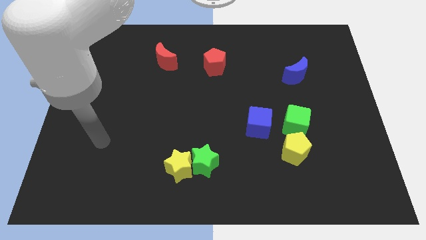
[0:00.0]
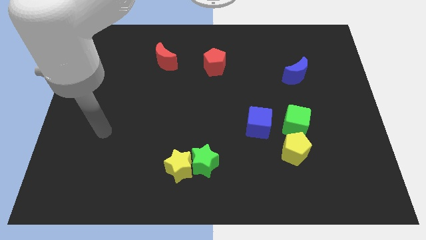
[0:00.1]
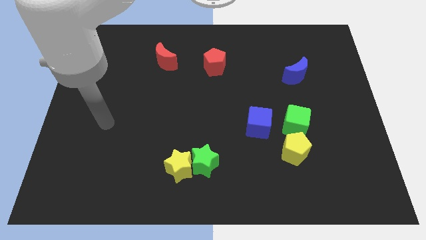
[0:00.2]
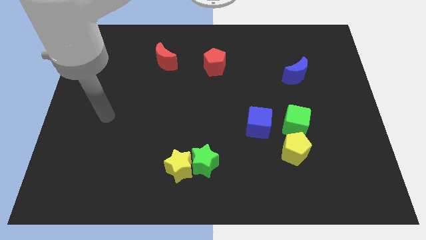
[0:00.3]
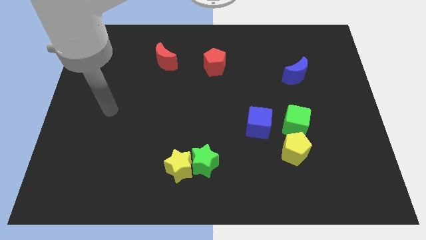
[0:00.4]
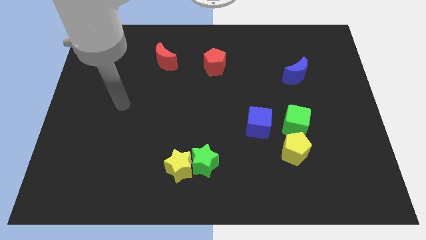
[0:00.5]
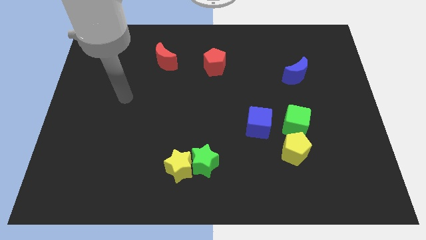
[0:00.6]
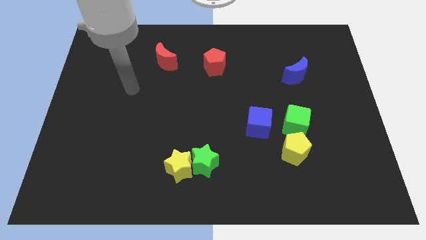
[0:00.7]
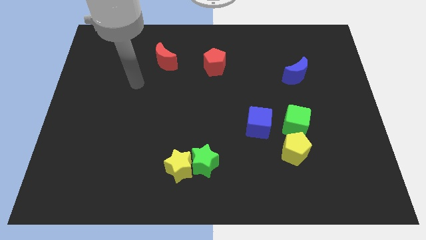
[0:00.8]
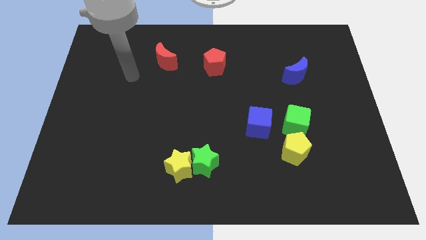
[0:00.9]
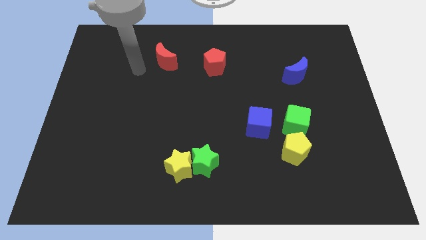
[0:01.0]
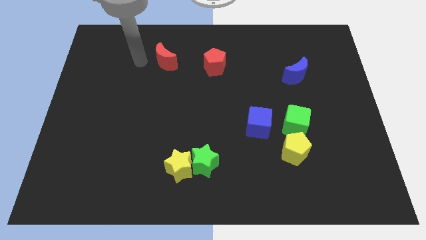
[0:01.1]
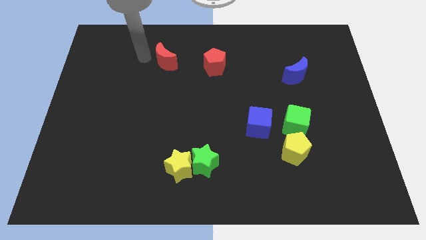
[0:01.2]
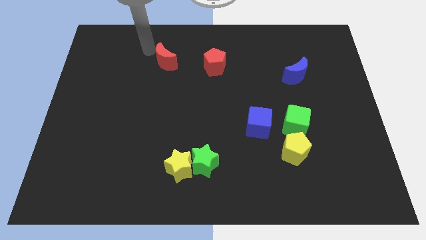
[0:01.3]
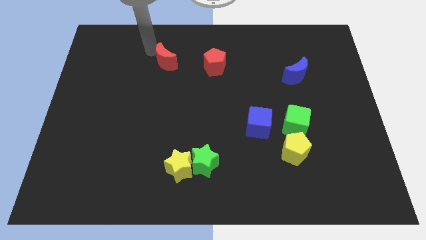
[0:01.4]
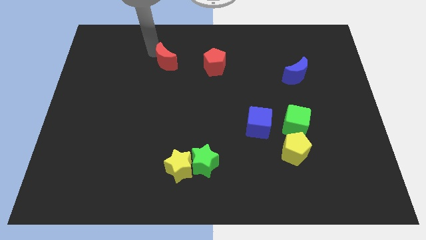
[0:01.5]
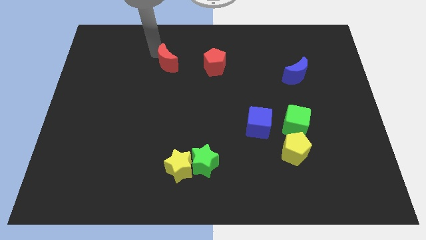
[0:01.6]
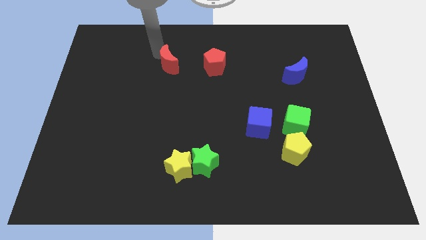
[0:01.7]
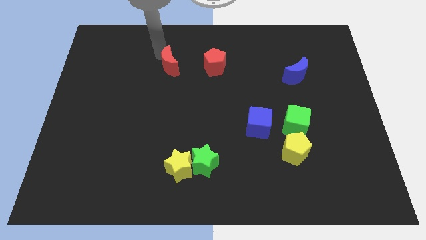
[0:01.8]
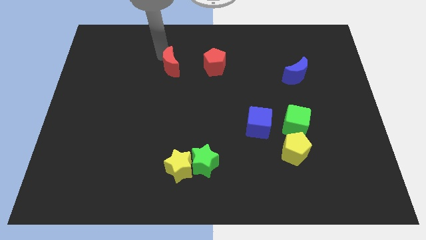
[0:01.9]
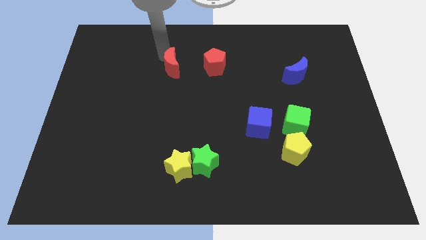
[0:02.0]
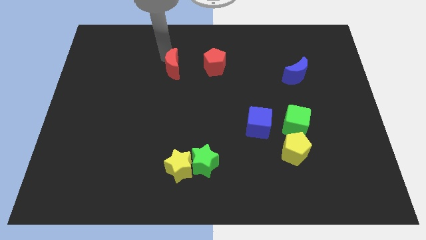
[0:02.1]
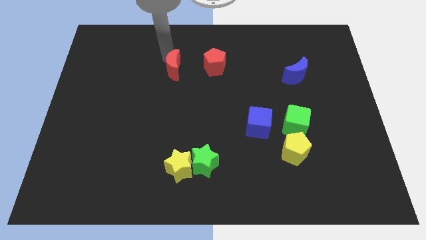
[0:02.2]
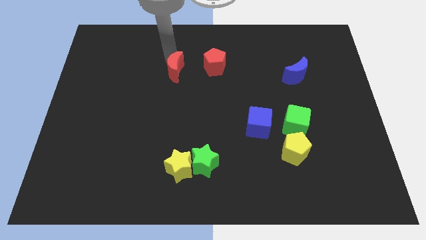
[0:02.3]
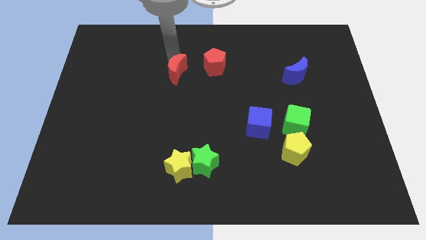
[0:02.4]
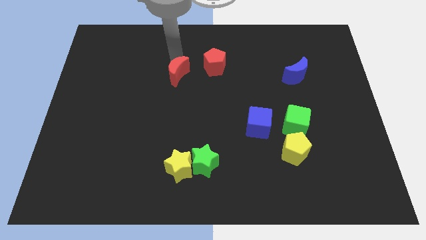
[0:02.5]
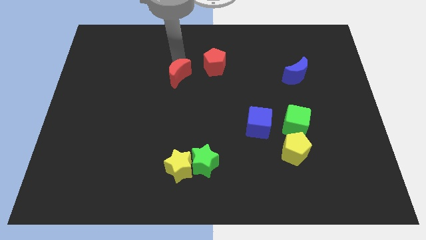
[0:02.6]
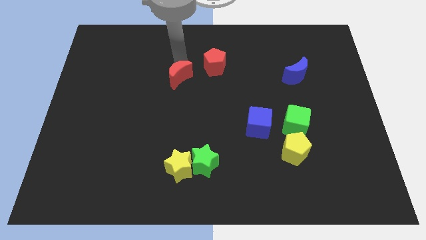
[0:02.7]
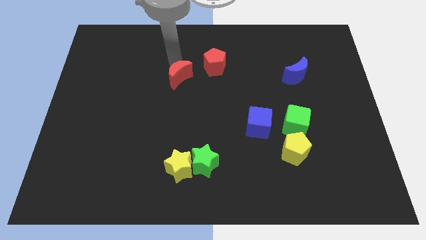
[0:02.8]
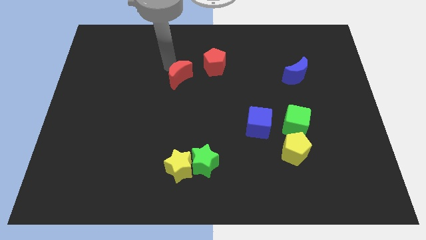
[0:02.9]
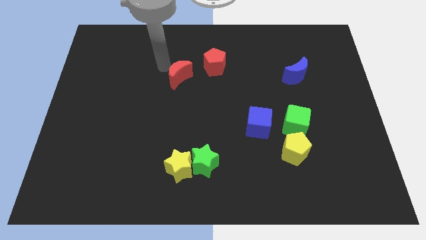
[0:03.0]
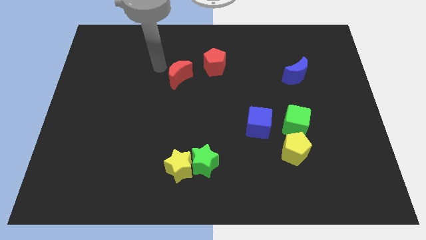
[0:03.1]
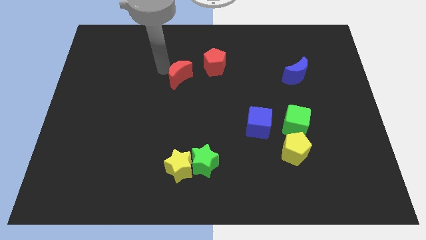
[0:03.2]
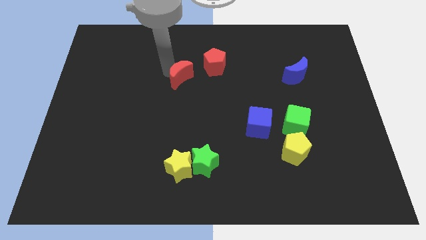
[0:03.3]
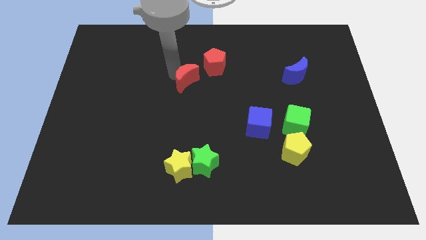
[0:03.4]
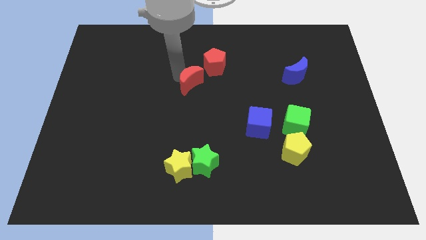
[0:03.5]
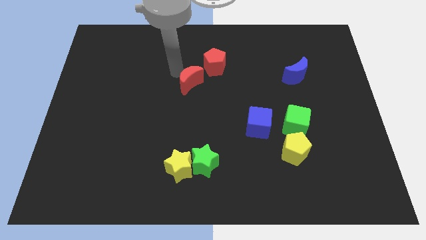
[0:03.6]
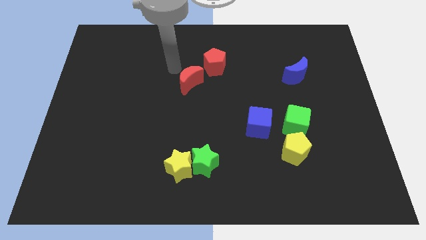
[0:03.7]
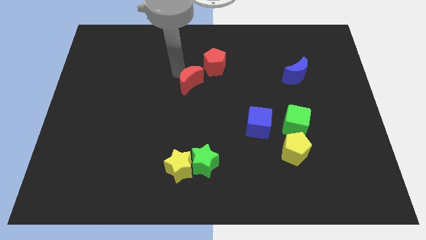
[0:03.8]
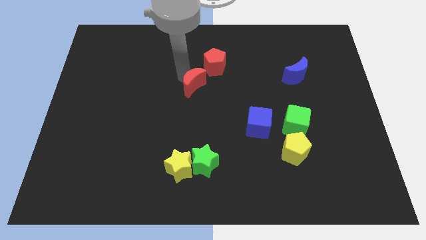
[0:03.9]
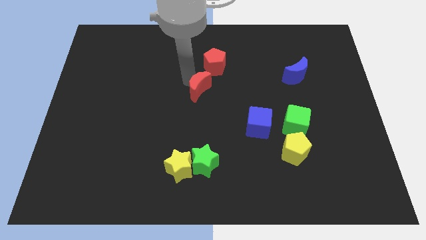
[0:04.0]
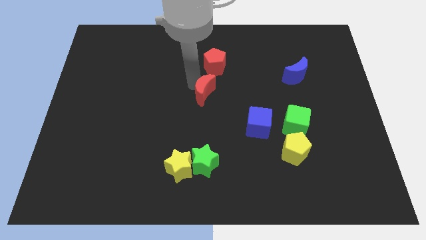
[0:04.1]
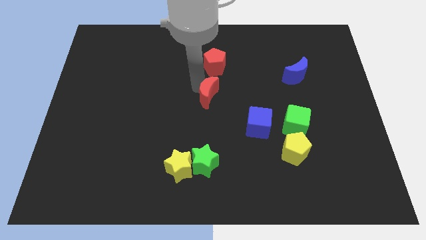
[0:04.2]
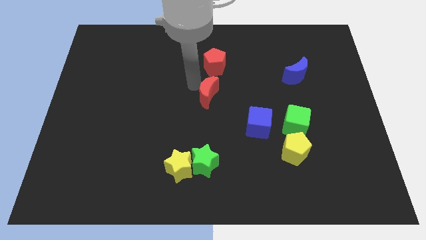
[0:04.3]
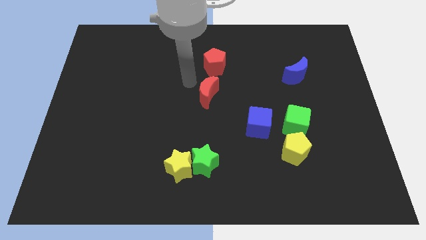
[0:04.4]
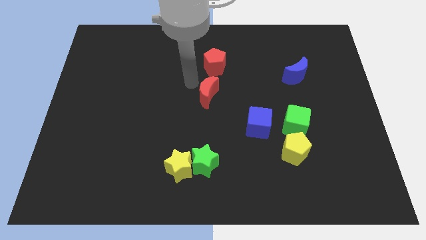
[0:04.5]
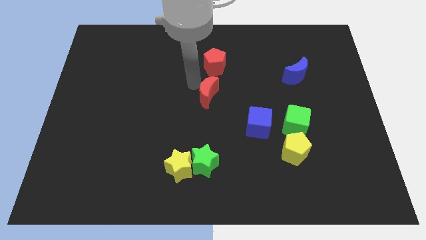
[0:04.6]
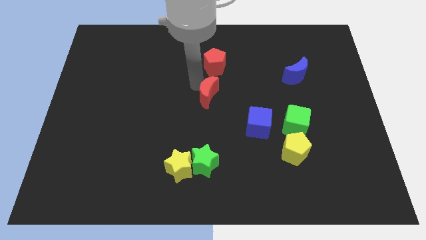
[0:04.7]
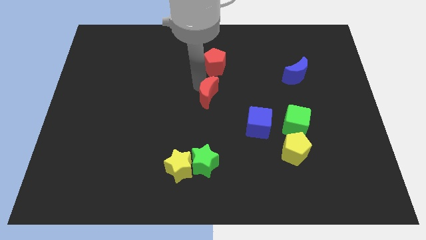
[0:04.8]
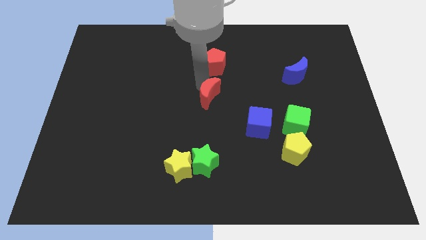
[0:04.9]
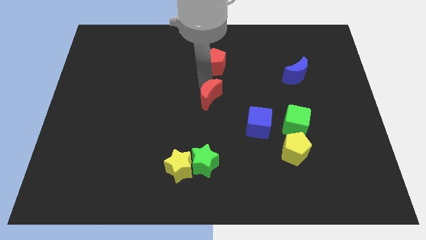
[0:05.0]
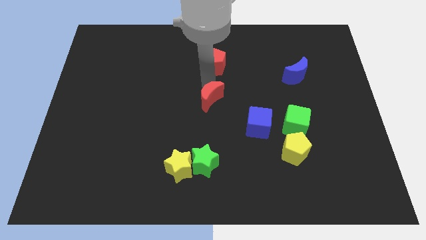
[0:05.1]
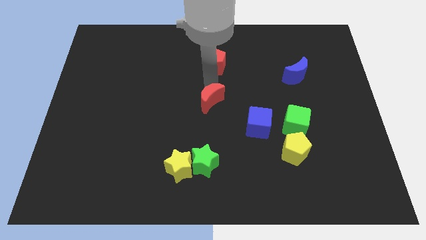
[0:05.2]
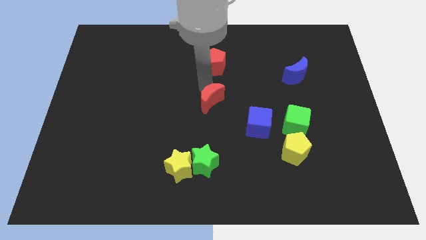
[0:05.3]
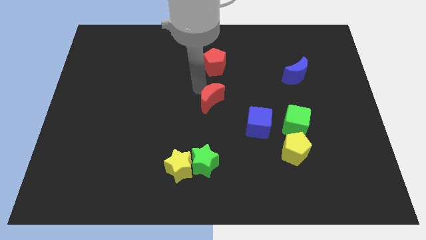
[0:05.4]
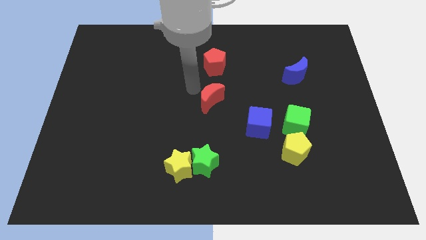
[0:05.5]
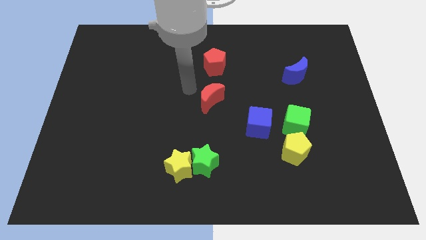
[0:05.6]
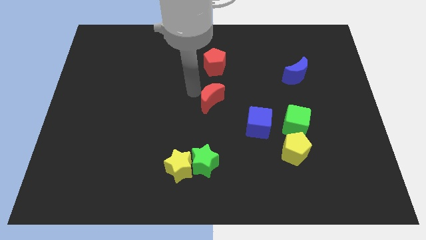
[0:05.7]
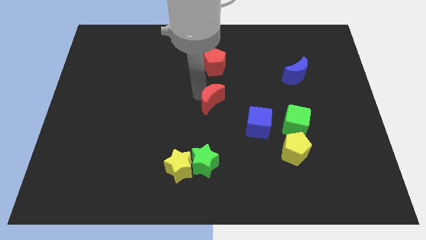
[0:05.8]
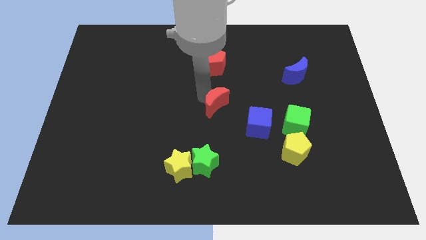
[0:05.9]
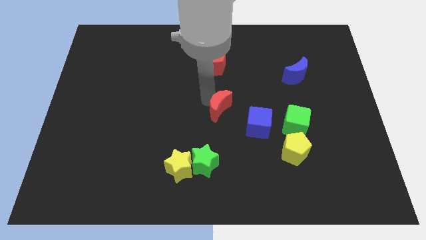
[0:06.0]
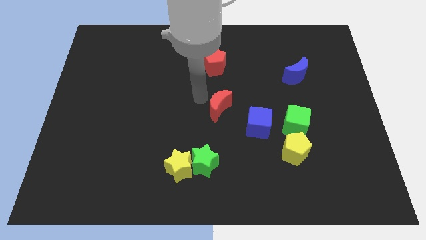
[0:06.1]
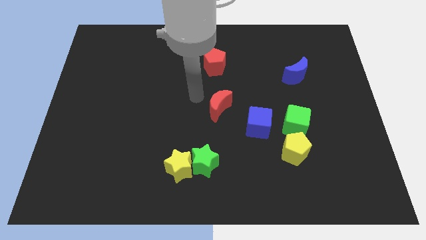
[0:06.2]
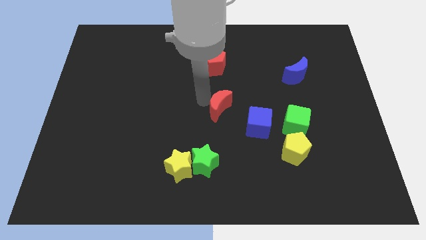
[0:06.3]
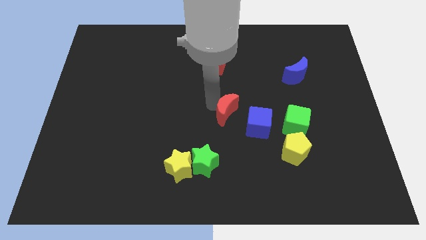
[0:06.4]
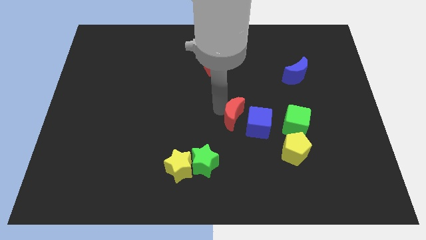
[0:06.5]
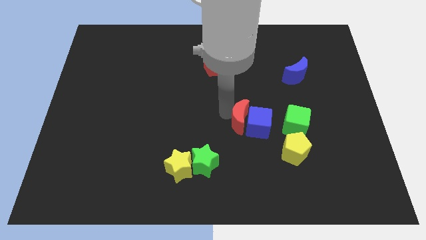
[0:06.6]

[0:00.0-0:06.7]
put the red moon close to the blue cube

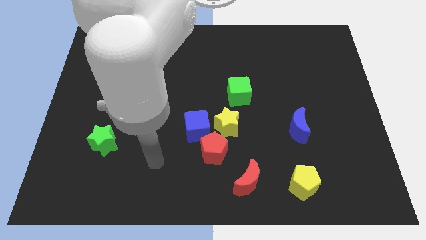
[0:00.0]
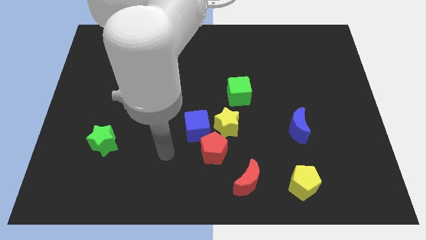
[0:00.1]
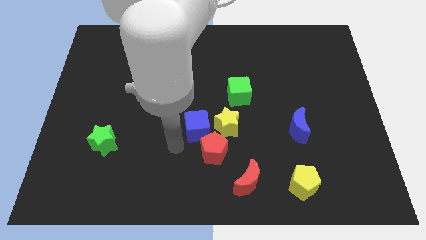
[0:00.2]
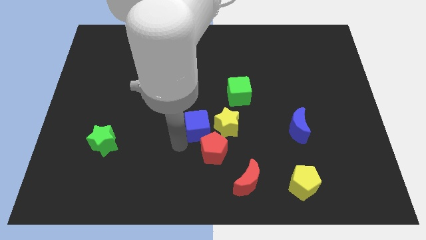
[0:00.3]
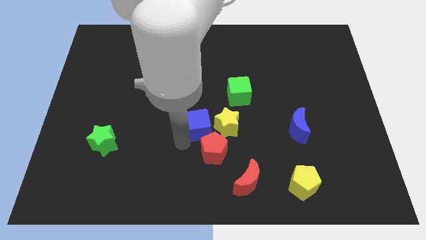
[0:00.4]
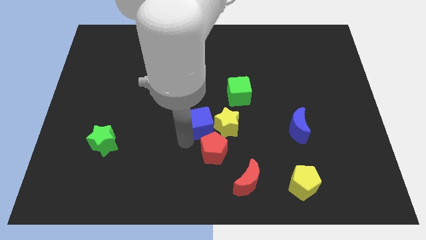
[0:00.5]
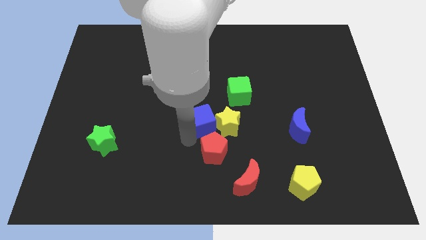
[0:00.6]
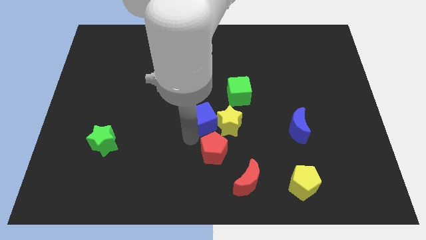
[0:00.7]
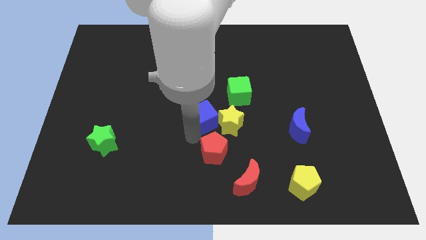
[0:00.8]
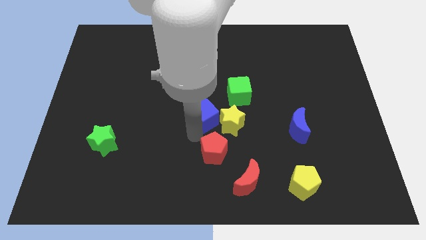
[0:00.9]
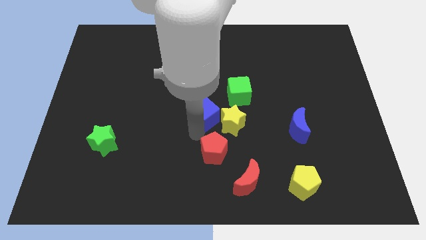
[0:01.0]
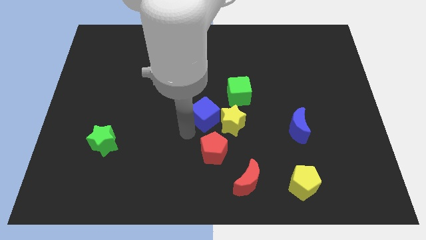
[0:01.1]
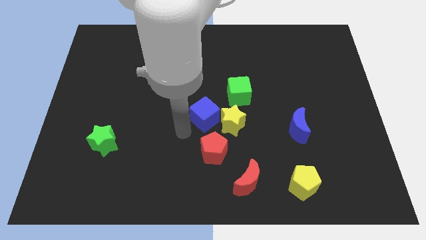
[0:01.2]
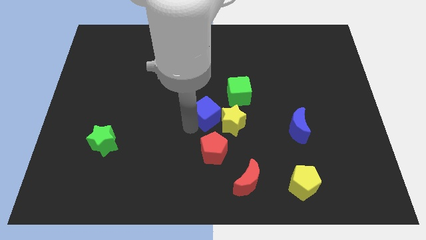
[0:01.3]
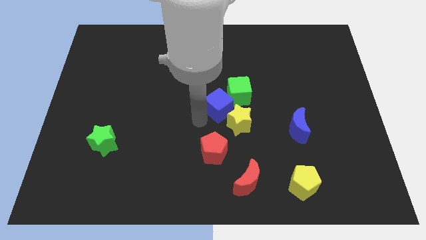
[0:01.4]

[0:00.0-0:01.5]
move the blue cube close to the green cube
